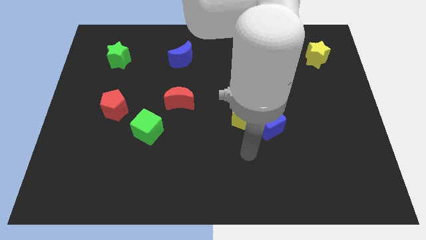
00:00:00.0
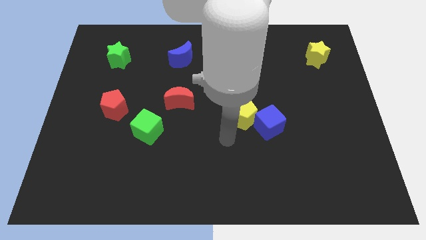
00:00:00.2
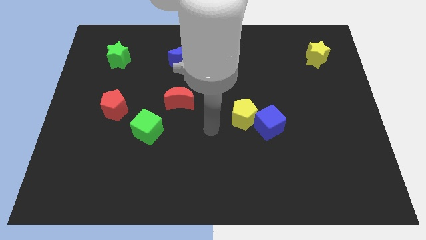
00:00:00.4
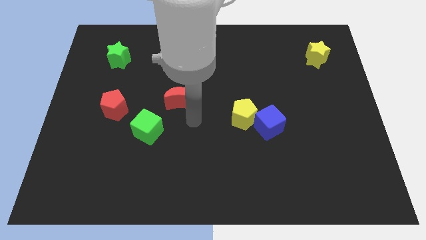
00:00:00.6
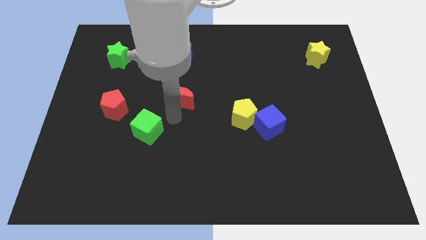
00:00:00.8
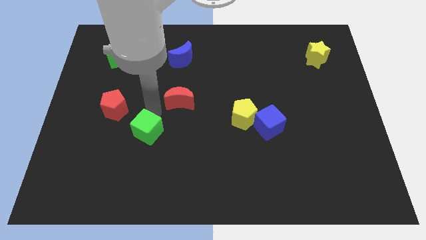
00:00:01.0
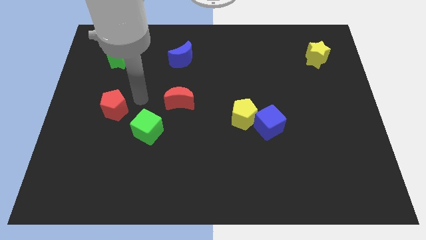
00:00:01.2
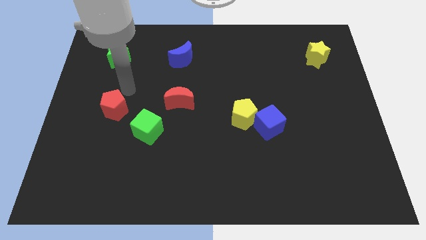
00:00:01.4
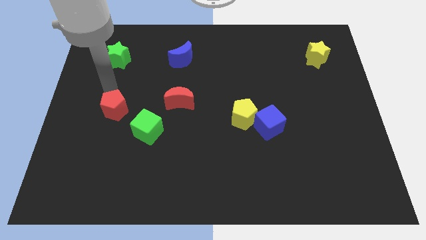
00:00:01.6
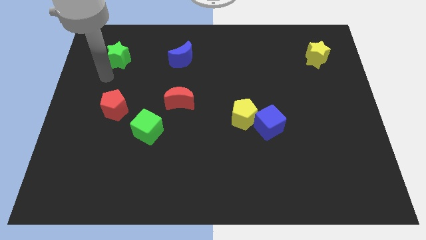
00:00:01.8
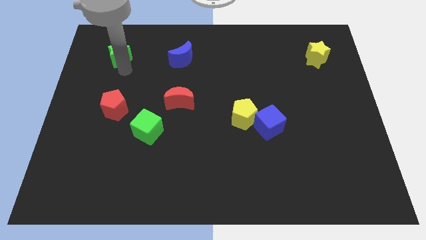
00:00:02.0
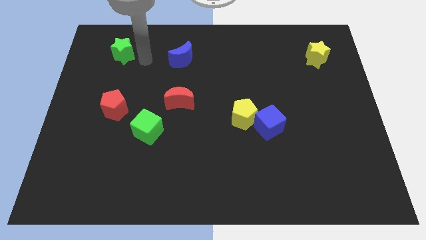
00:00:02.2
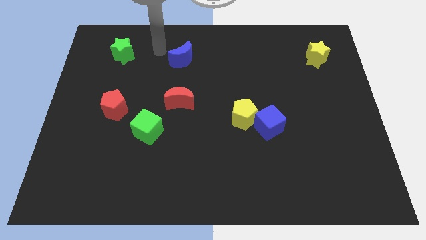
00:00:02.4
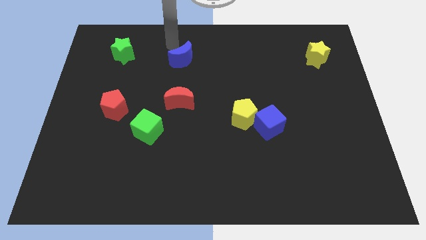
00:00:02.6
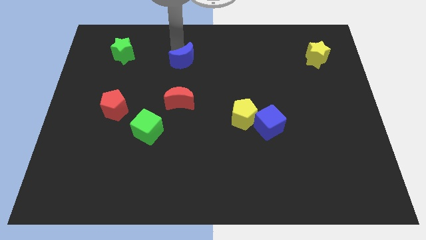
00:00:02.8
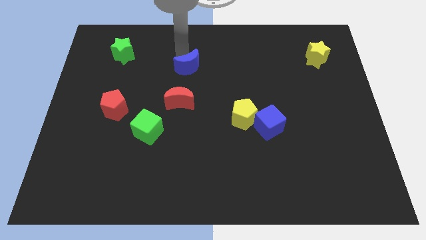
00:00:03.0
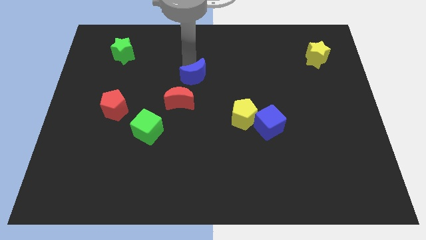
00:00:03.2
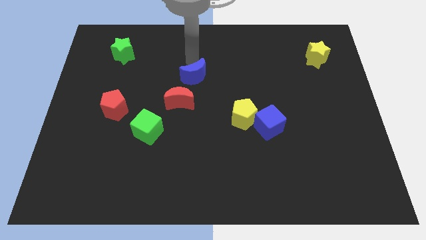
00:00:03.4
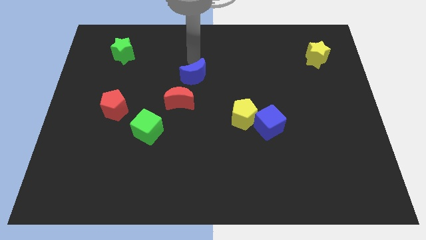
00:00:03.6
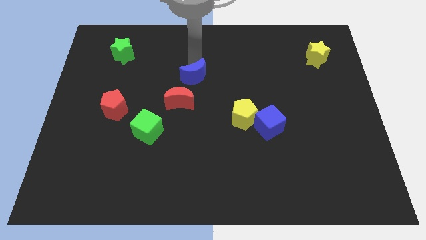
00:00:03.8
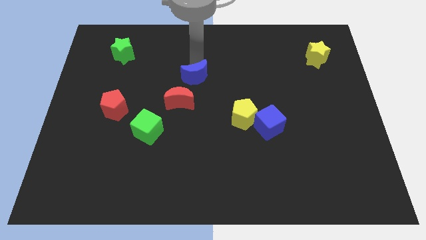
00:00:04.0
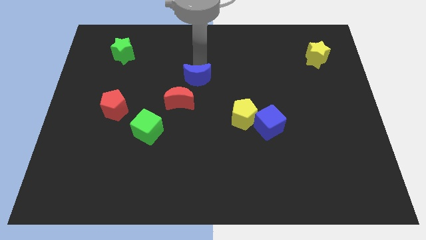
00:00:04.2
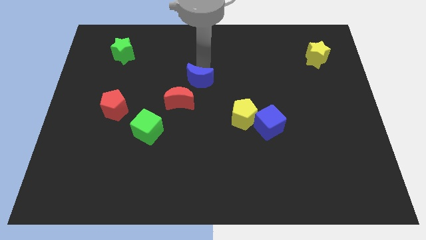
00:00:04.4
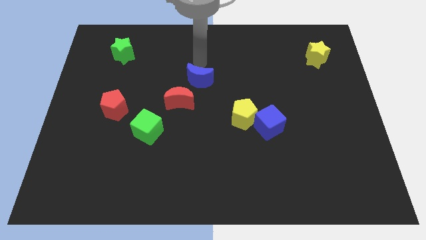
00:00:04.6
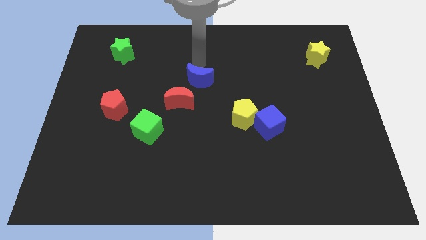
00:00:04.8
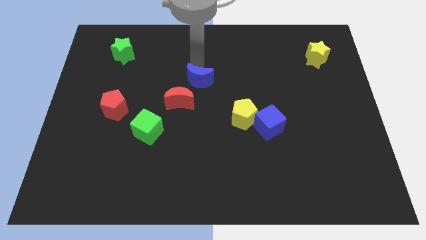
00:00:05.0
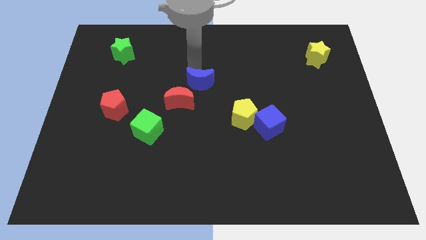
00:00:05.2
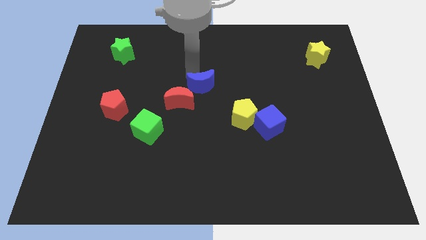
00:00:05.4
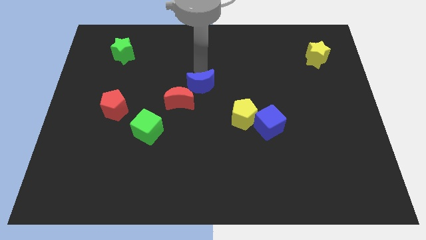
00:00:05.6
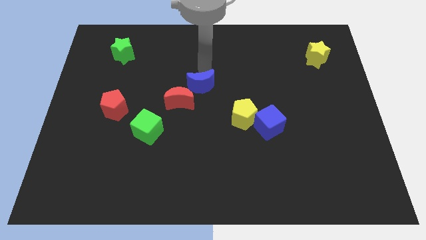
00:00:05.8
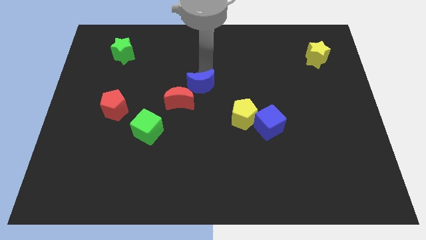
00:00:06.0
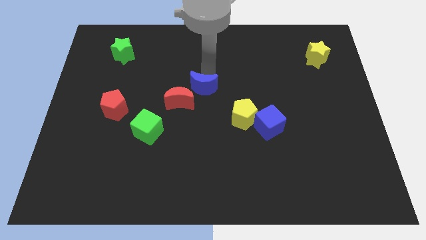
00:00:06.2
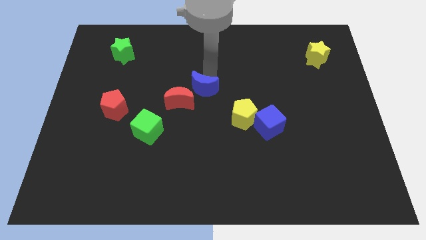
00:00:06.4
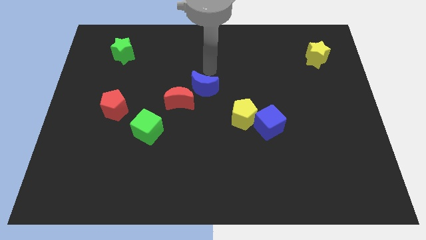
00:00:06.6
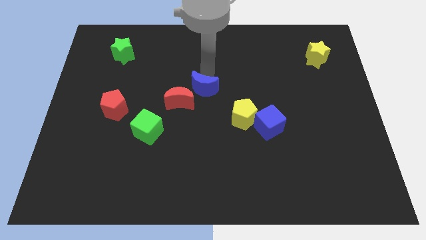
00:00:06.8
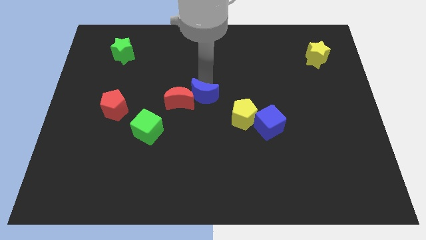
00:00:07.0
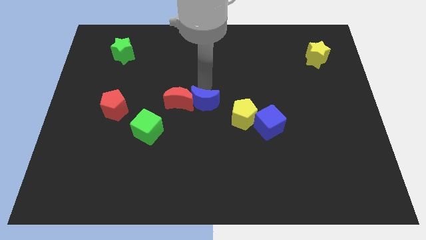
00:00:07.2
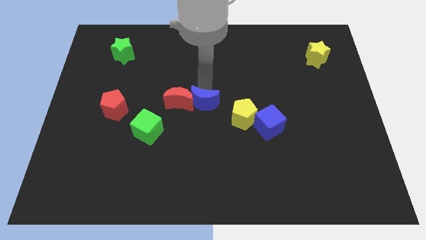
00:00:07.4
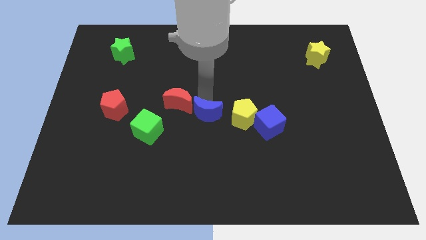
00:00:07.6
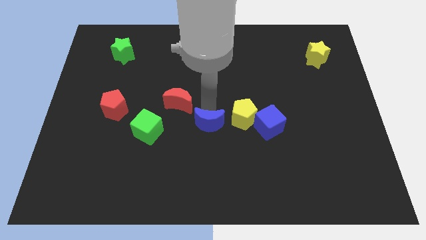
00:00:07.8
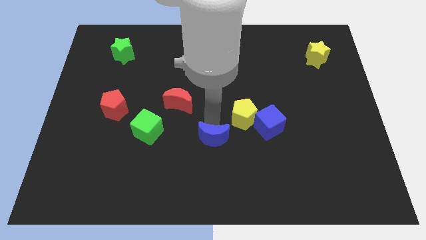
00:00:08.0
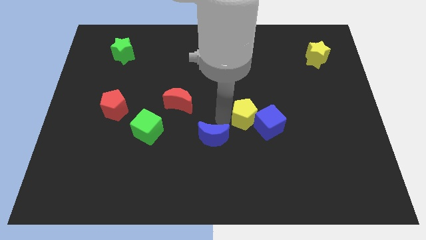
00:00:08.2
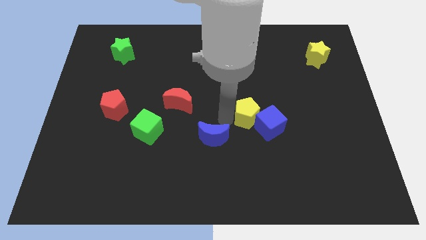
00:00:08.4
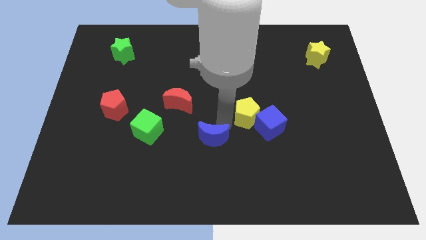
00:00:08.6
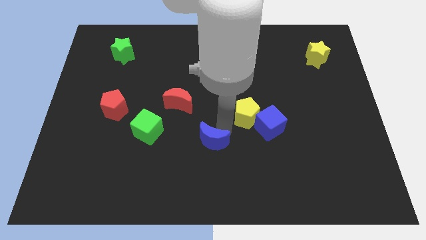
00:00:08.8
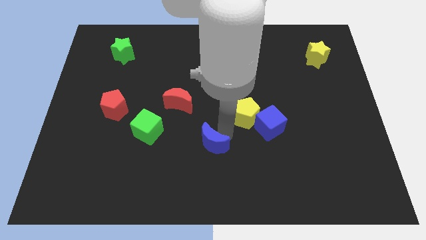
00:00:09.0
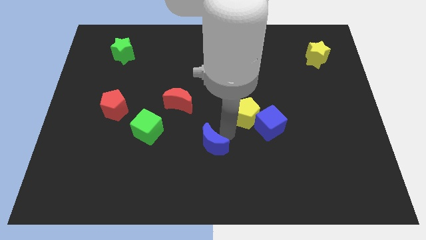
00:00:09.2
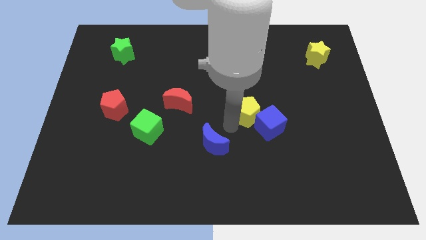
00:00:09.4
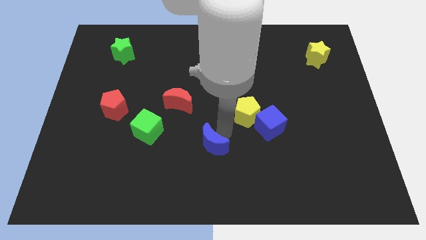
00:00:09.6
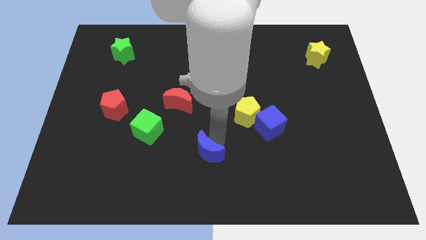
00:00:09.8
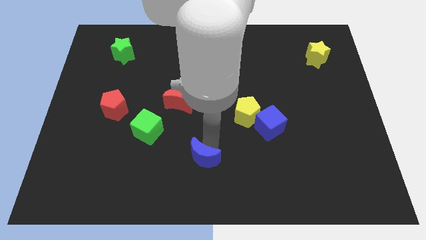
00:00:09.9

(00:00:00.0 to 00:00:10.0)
move the blue moon to the bottom

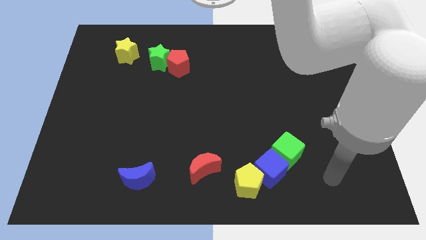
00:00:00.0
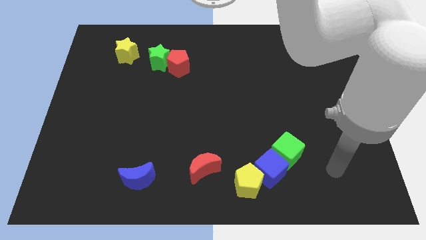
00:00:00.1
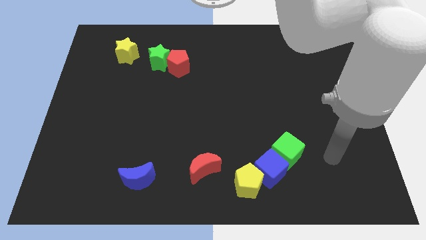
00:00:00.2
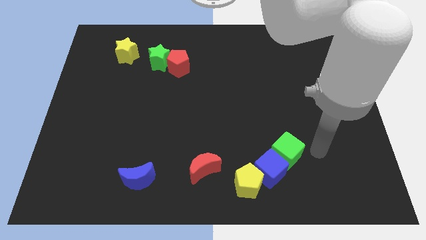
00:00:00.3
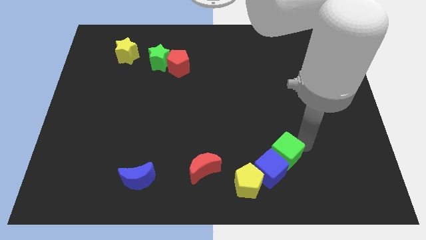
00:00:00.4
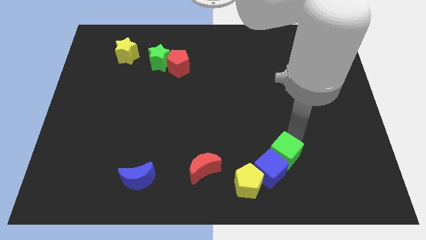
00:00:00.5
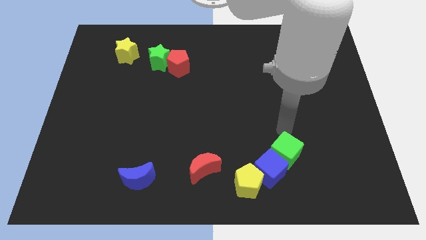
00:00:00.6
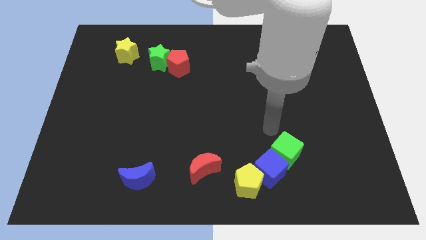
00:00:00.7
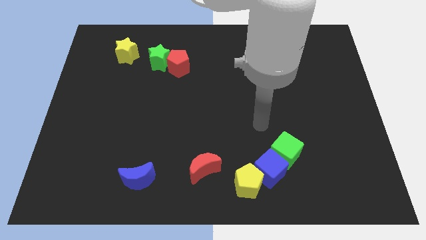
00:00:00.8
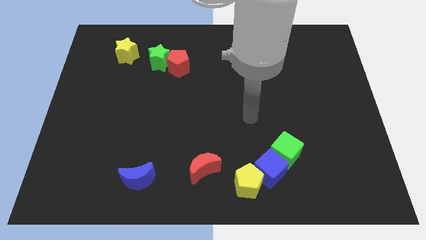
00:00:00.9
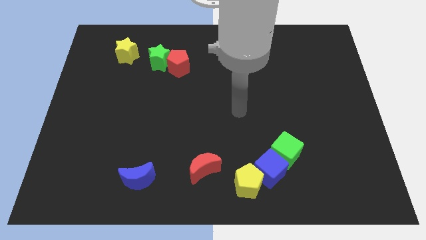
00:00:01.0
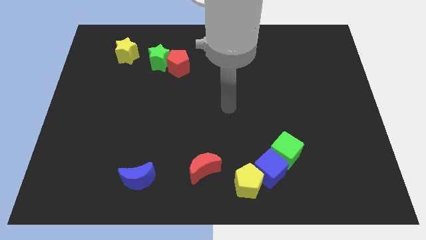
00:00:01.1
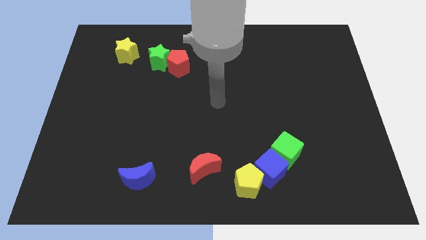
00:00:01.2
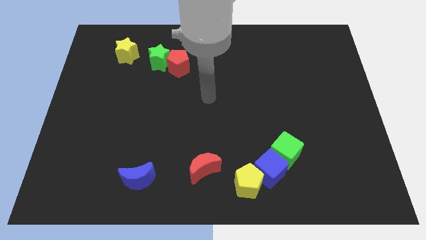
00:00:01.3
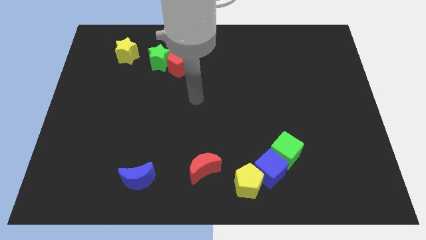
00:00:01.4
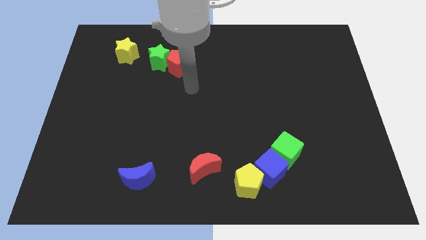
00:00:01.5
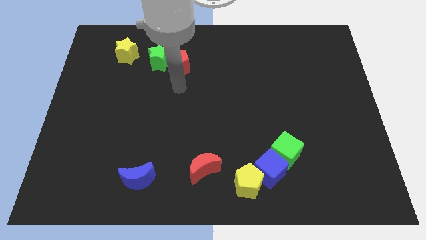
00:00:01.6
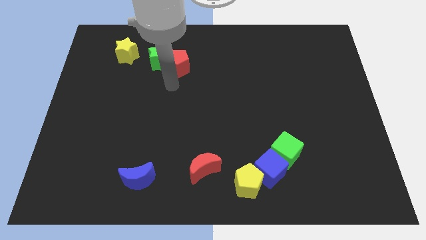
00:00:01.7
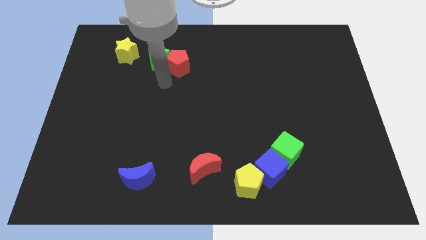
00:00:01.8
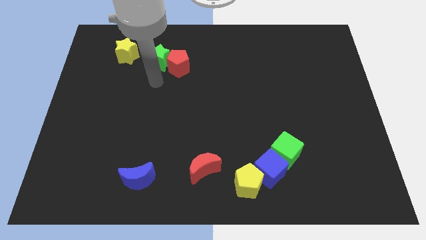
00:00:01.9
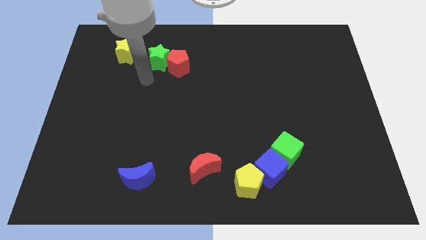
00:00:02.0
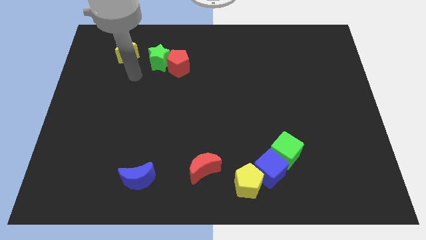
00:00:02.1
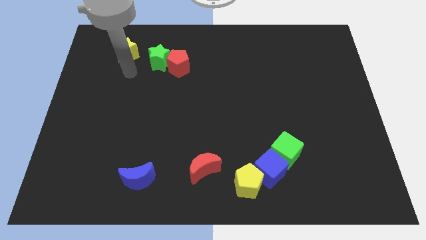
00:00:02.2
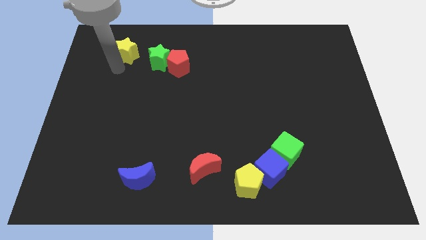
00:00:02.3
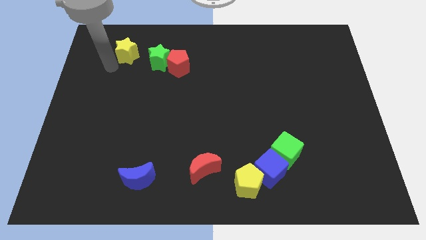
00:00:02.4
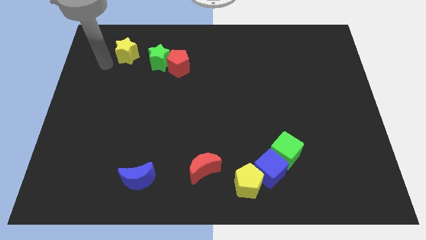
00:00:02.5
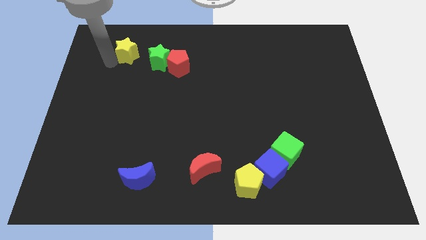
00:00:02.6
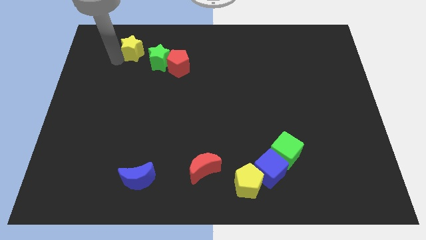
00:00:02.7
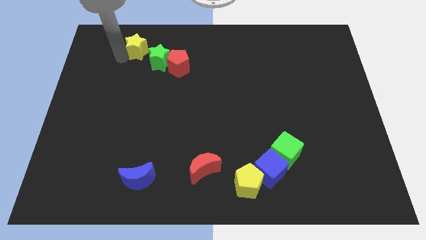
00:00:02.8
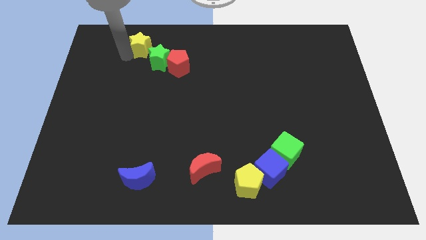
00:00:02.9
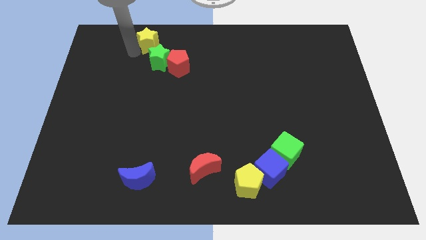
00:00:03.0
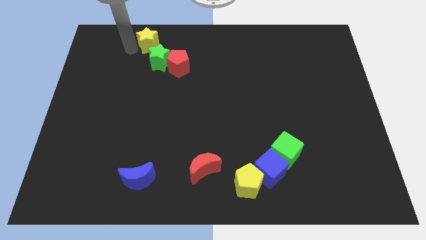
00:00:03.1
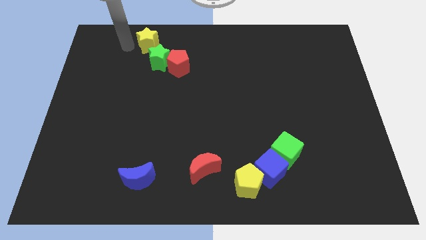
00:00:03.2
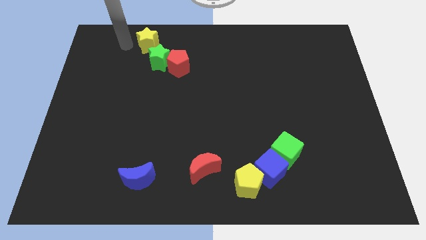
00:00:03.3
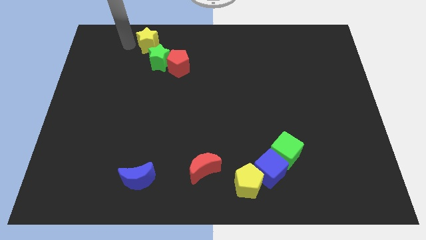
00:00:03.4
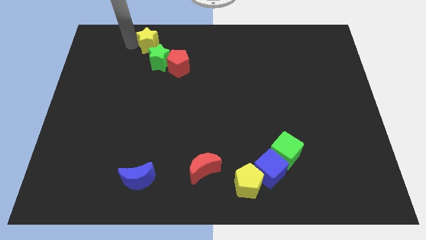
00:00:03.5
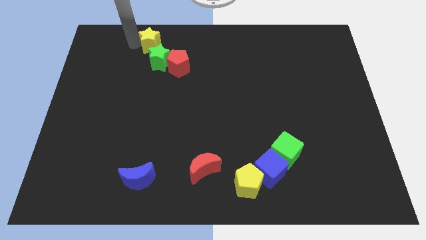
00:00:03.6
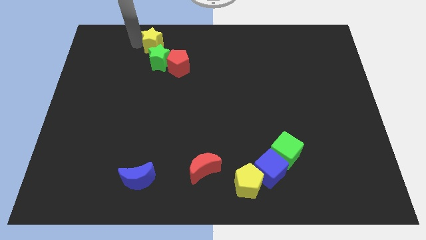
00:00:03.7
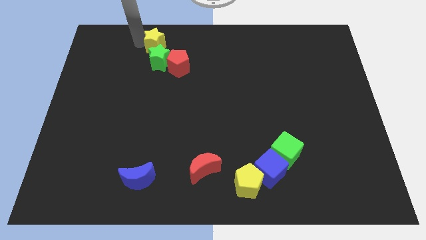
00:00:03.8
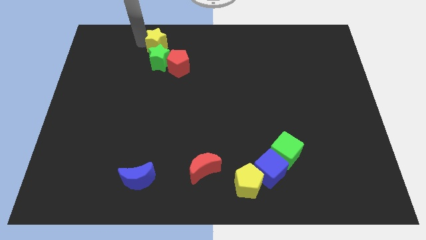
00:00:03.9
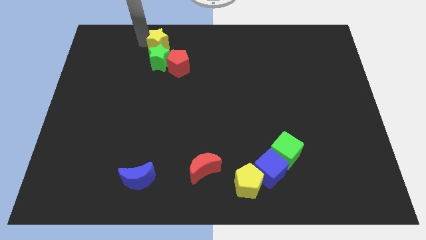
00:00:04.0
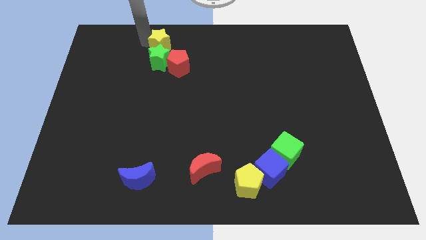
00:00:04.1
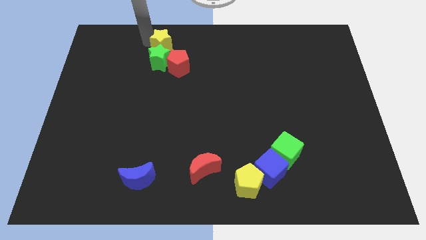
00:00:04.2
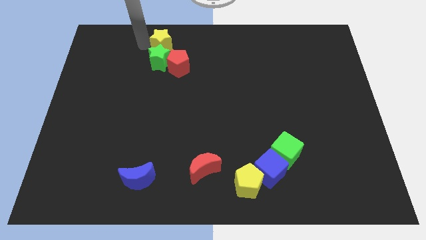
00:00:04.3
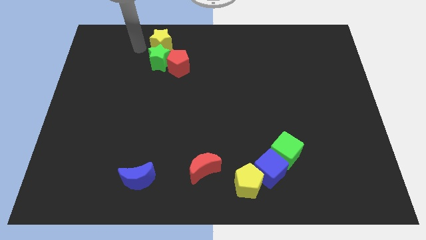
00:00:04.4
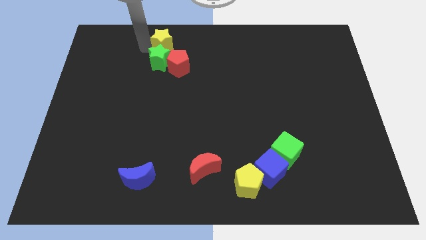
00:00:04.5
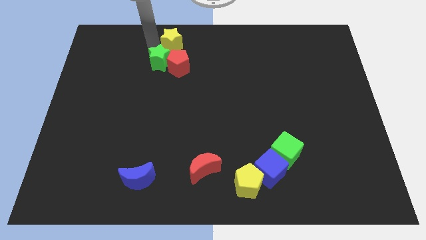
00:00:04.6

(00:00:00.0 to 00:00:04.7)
move the yellow star to the towards your base
